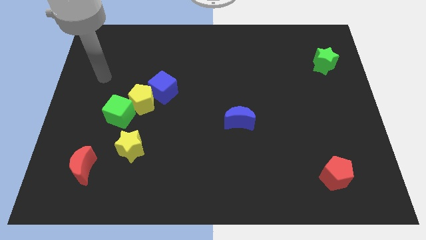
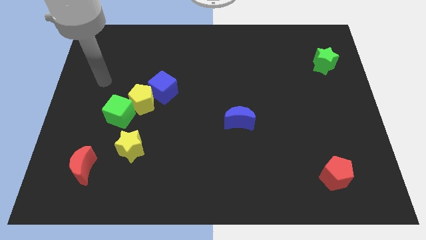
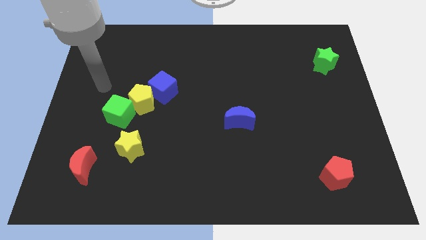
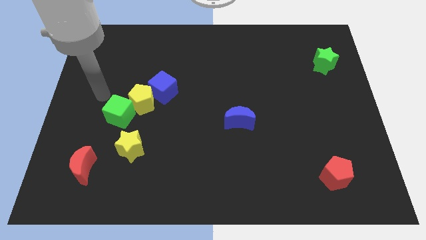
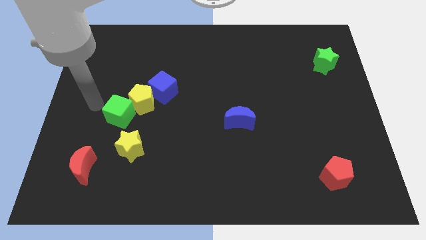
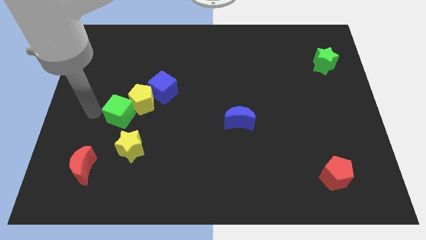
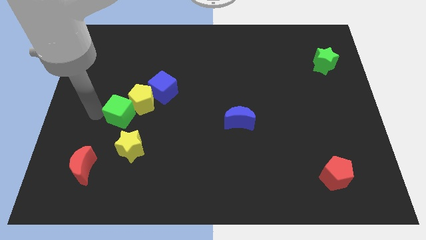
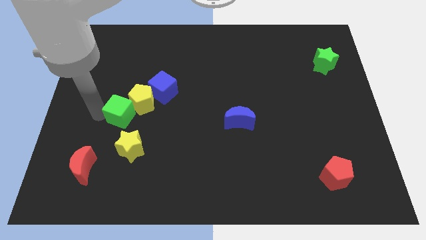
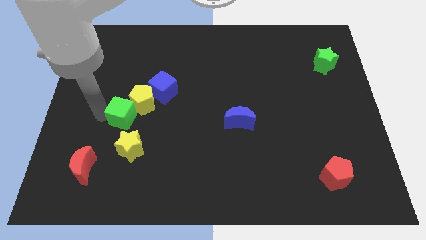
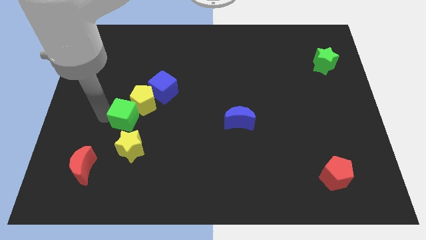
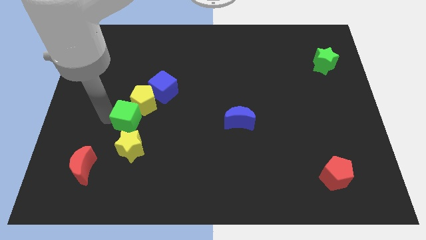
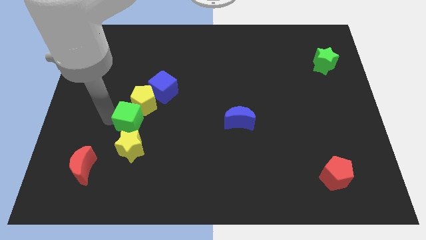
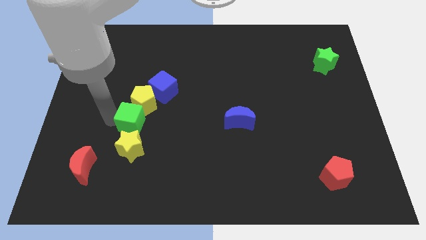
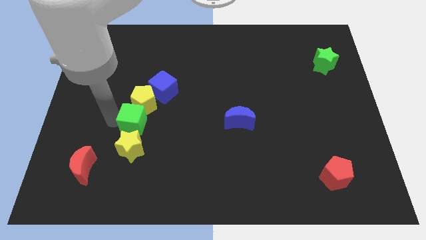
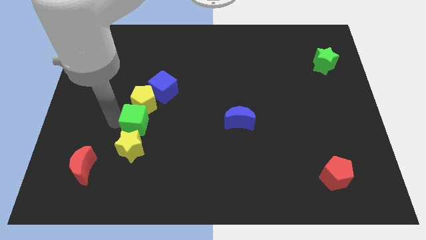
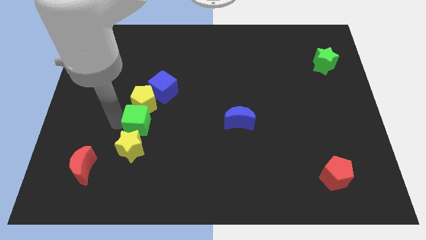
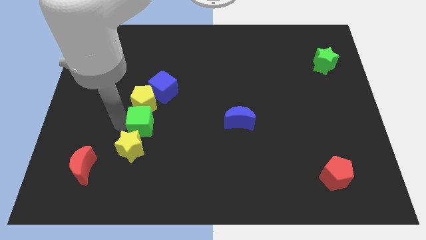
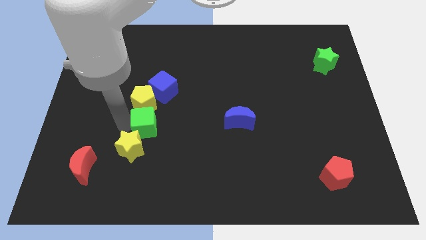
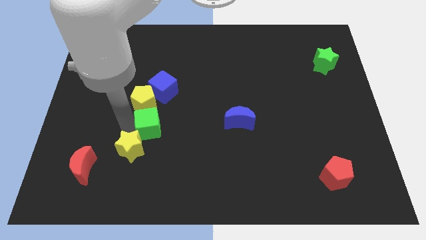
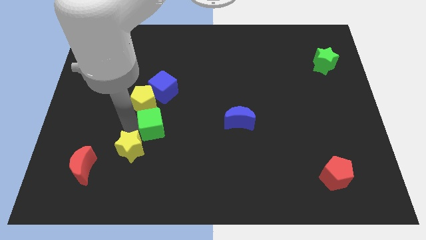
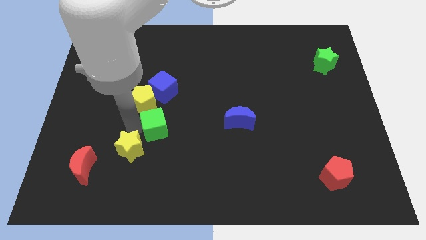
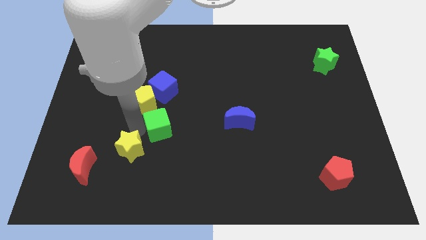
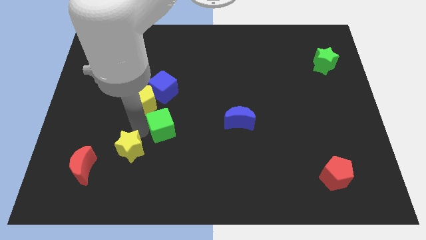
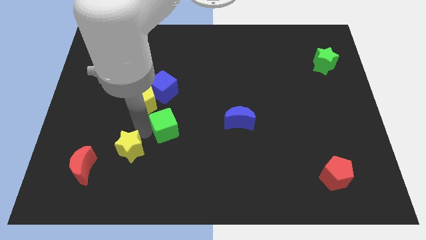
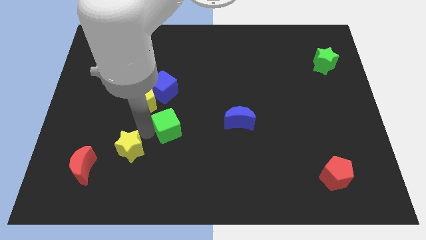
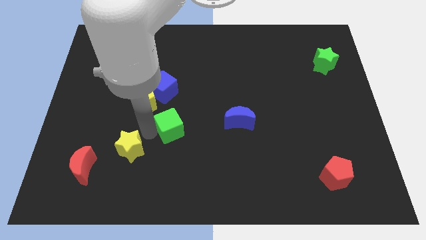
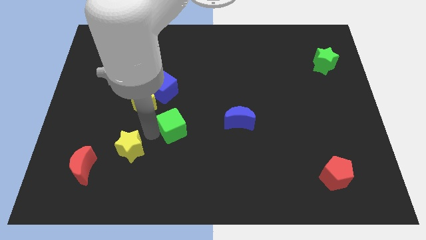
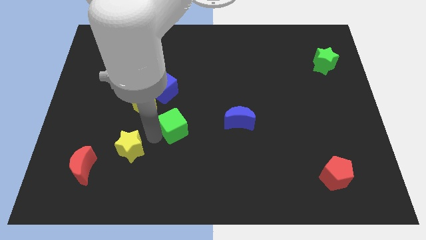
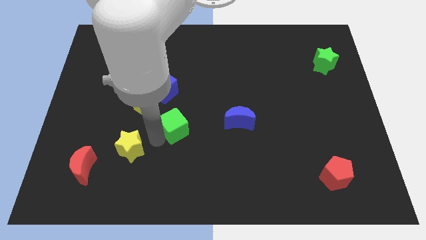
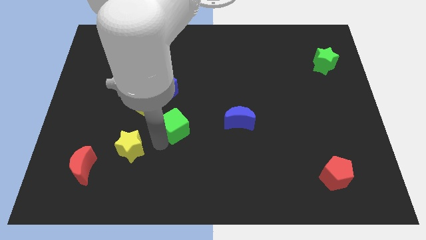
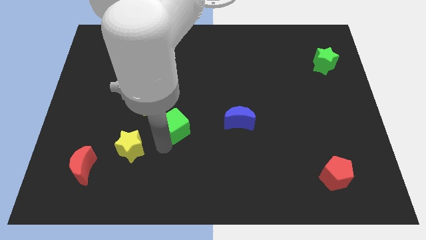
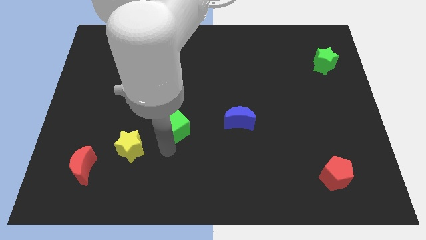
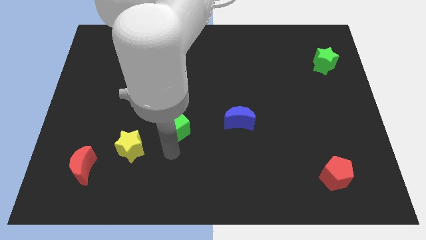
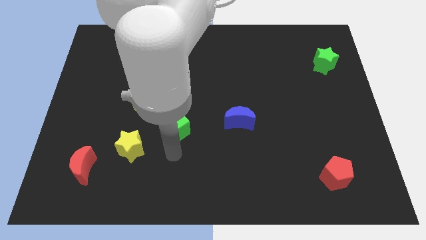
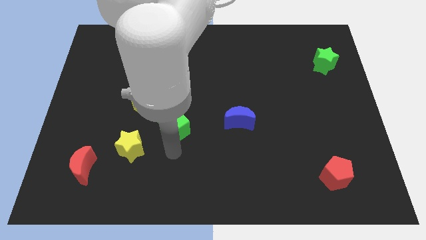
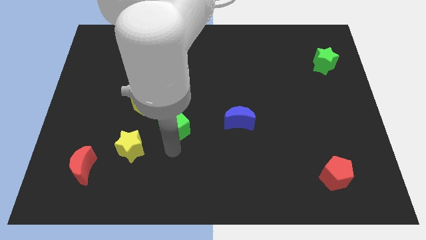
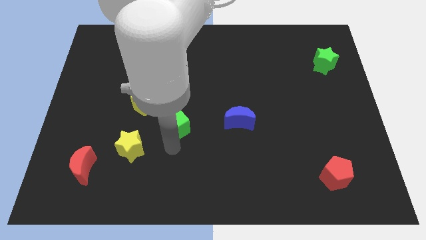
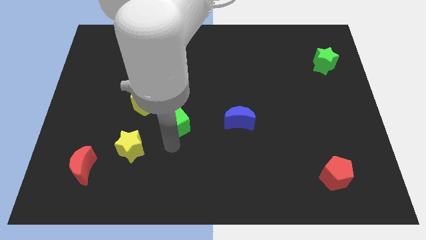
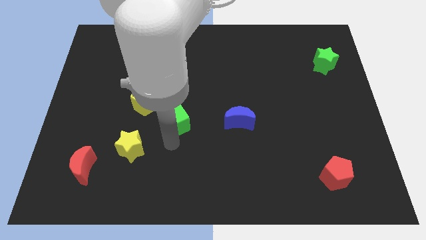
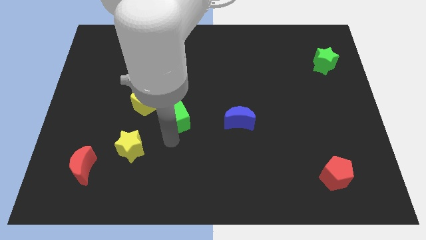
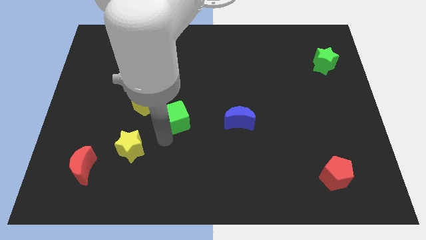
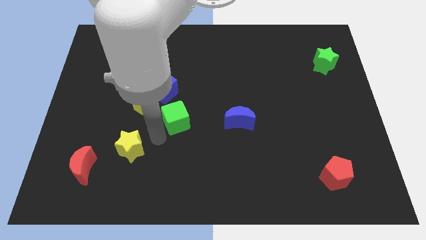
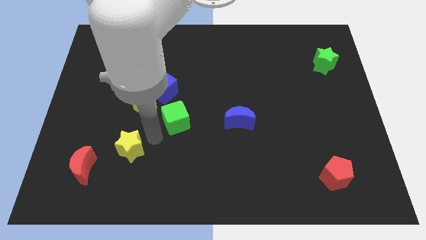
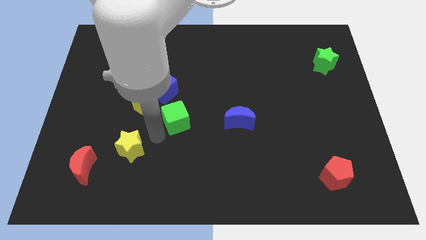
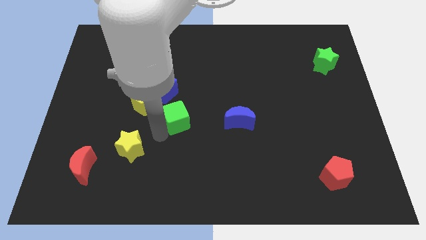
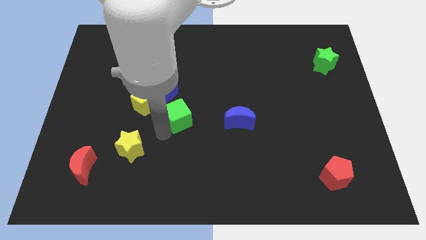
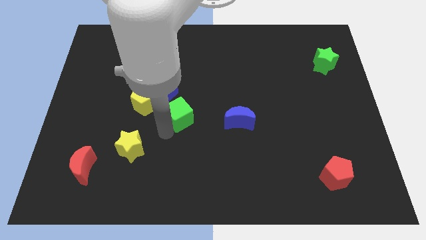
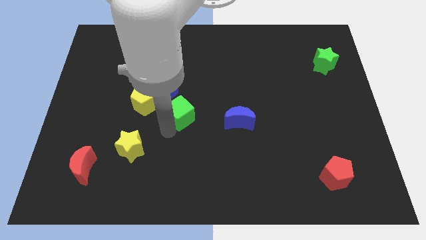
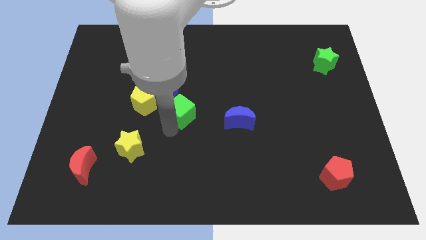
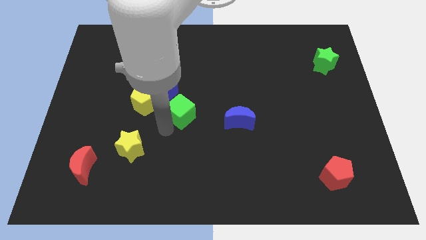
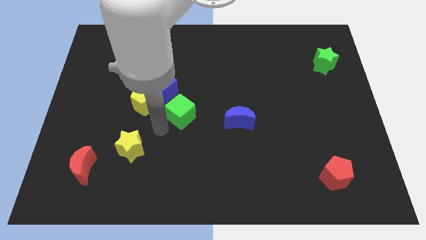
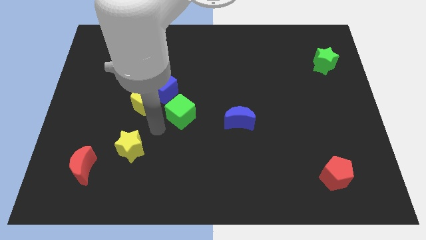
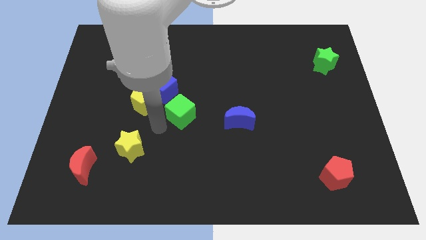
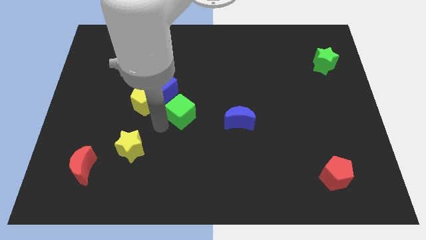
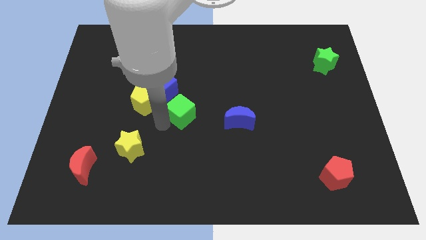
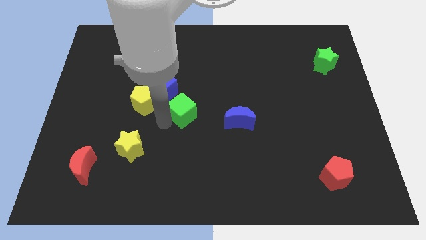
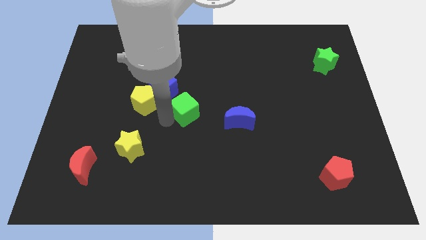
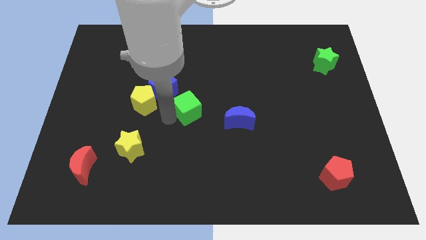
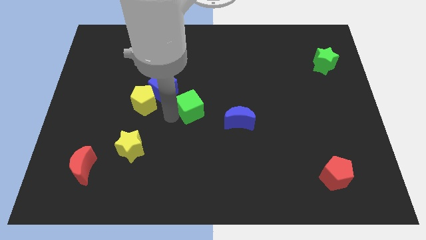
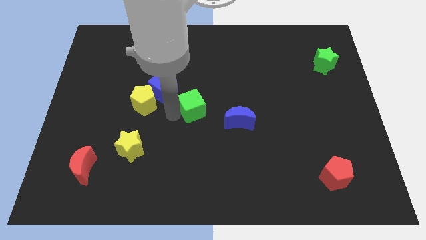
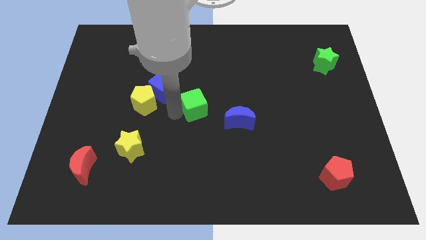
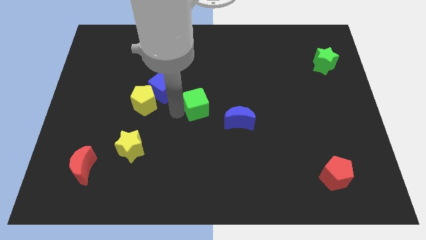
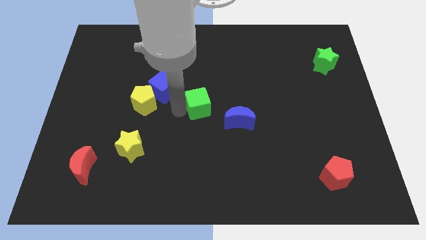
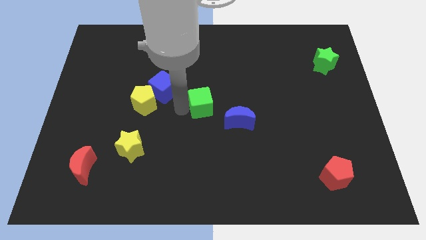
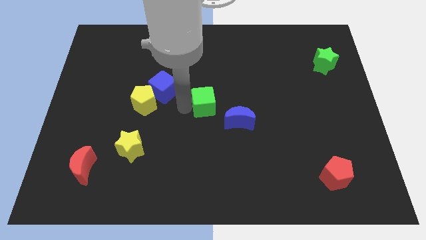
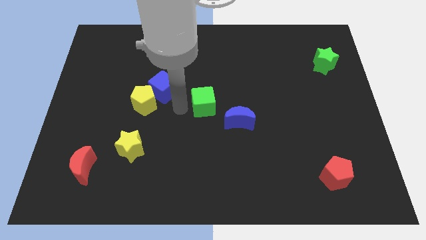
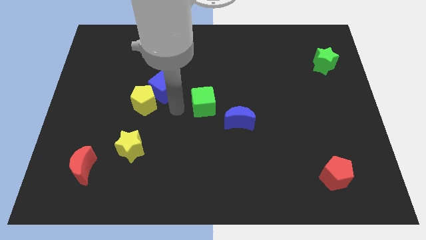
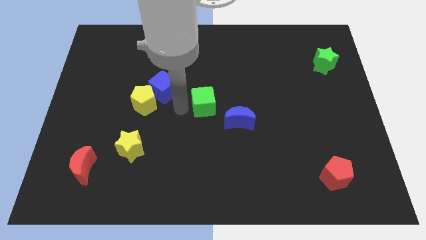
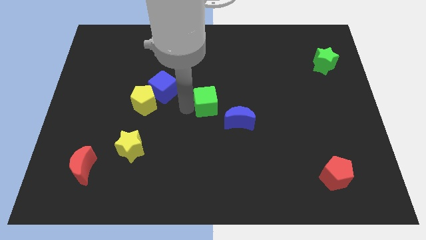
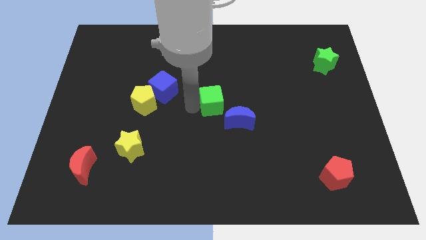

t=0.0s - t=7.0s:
slide the green cube to the right

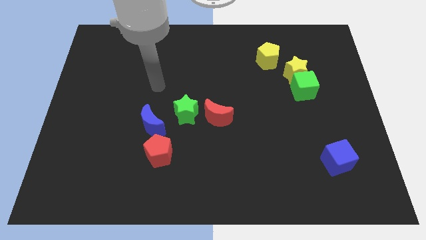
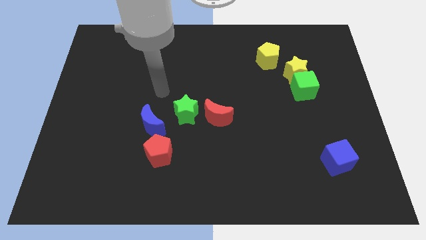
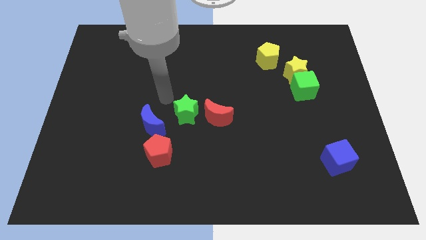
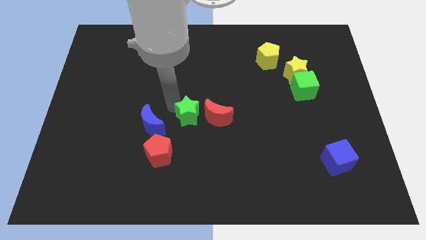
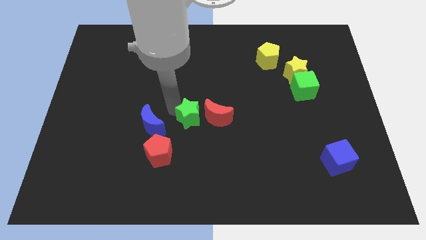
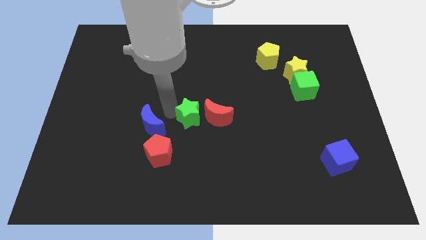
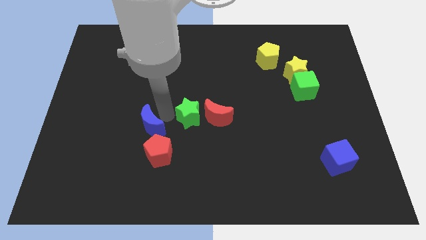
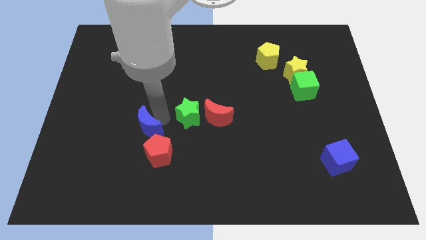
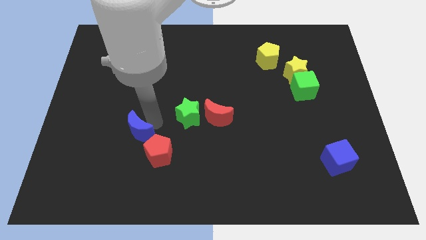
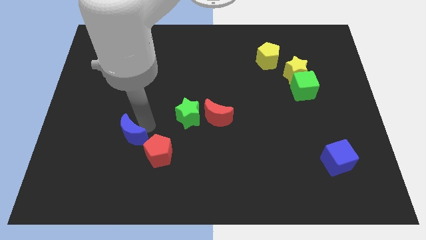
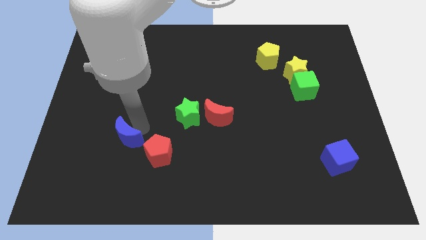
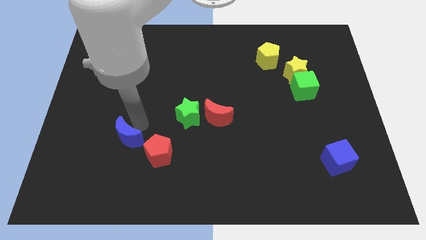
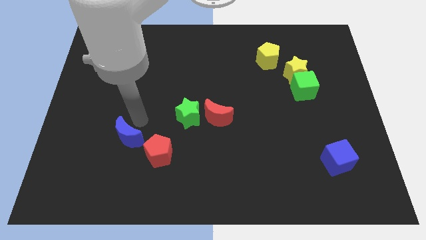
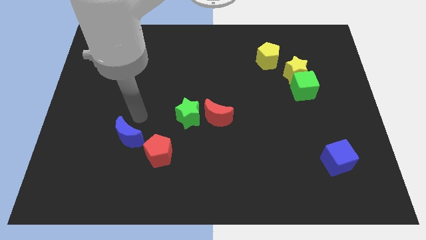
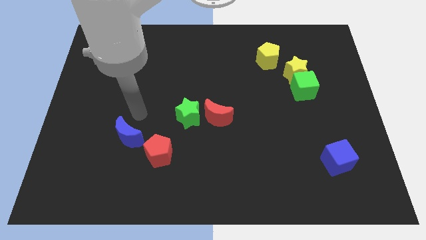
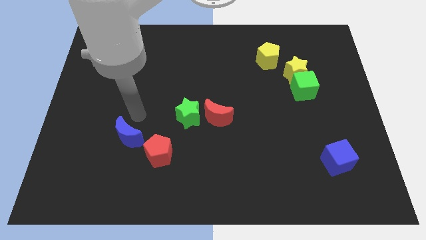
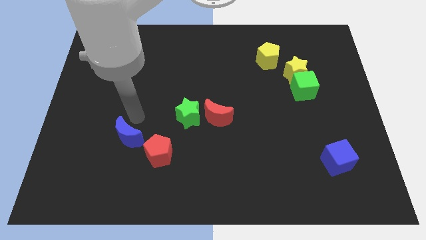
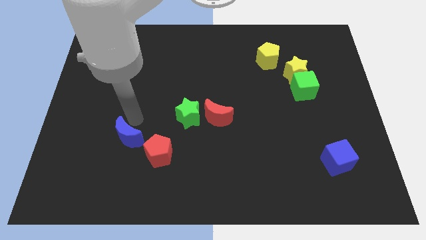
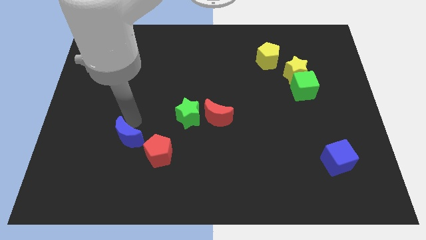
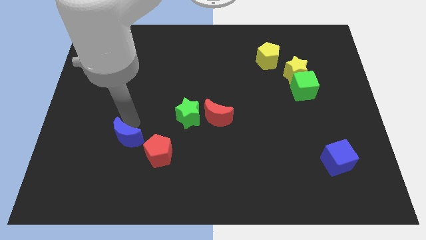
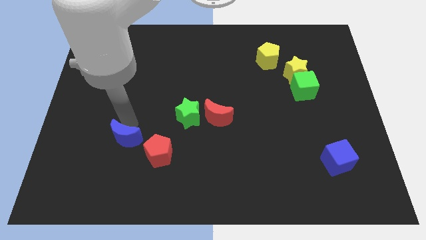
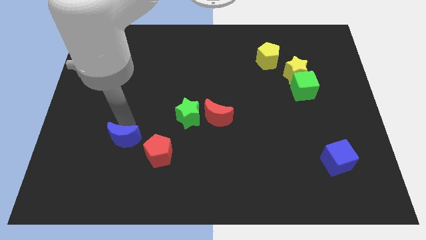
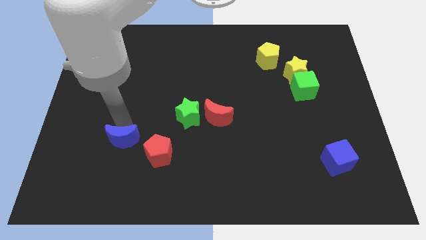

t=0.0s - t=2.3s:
move the blue moon a little bit downwards and to the left
